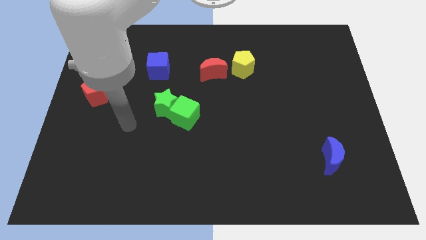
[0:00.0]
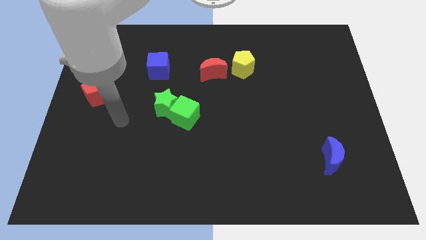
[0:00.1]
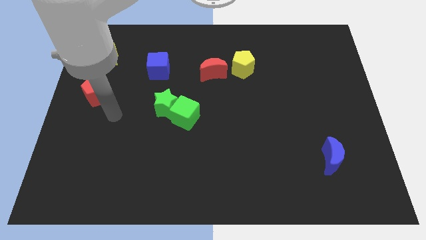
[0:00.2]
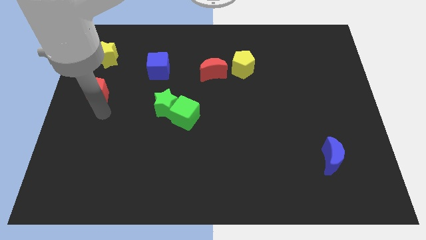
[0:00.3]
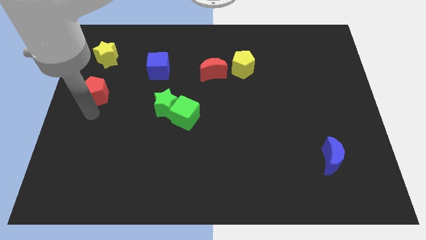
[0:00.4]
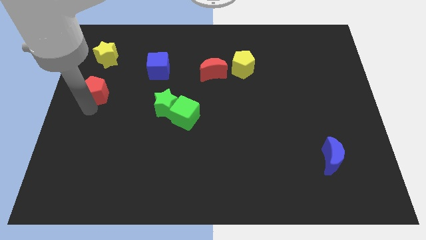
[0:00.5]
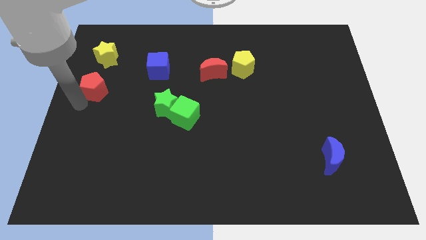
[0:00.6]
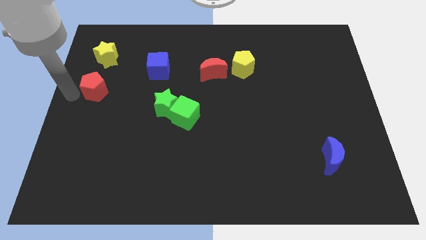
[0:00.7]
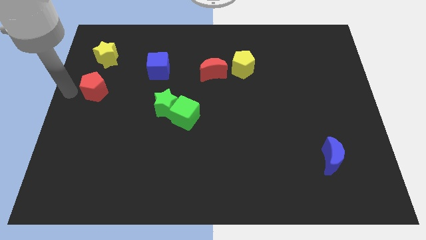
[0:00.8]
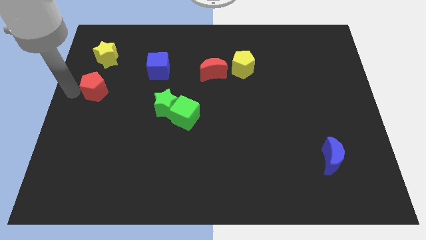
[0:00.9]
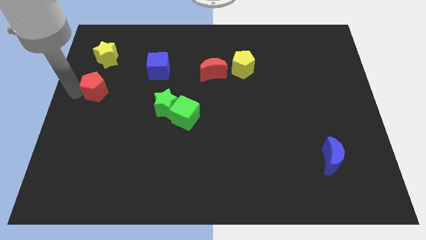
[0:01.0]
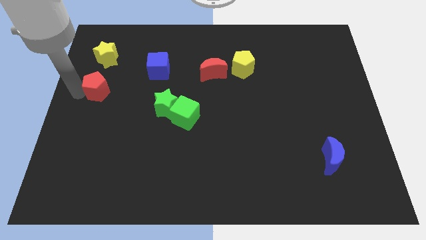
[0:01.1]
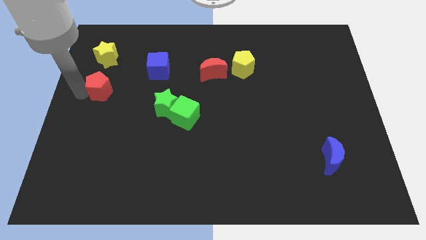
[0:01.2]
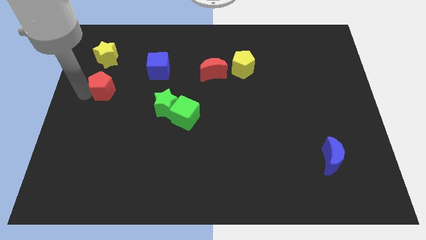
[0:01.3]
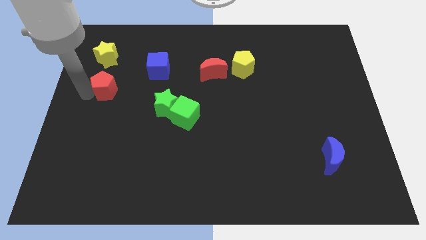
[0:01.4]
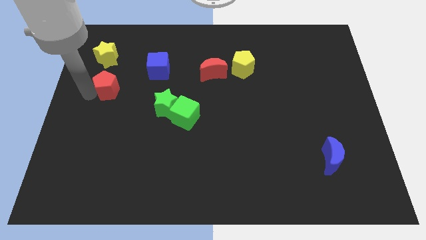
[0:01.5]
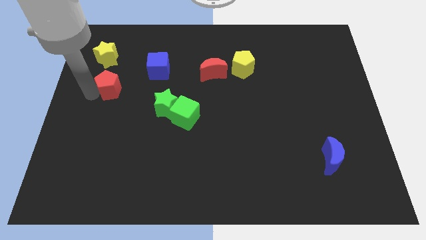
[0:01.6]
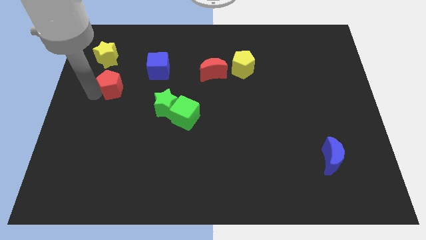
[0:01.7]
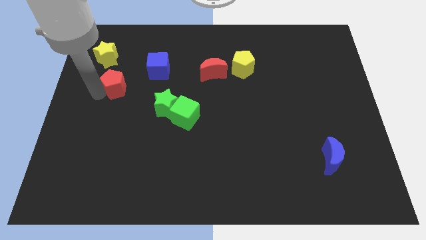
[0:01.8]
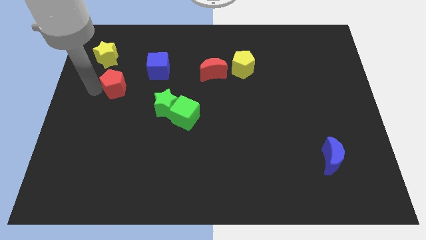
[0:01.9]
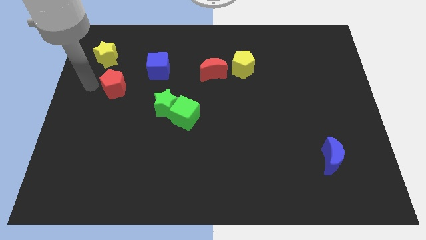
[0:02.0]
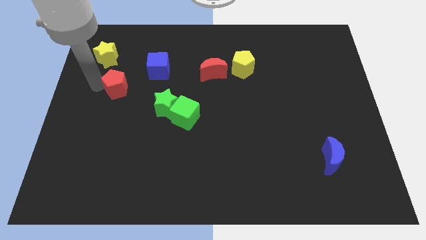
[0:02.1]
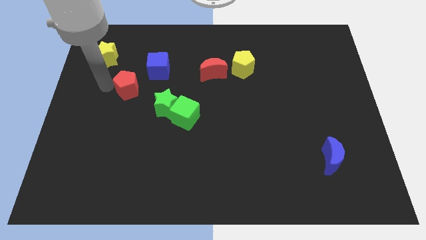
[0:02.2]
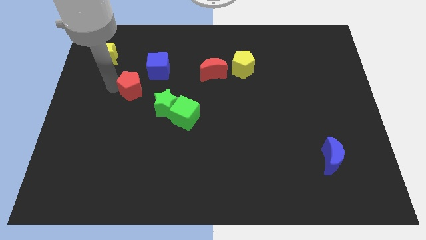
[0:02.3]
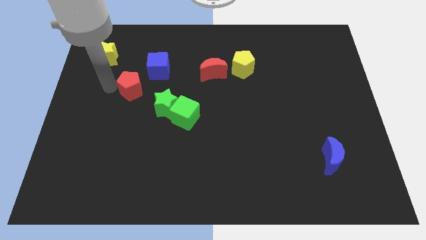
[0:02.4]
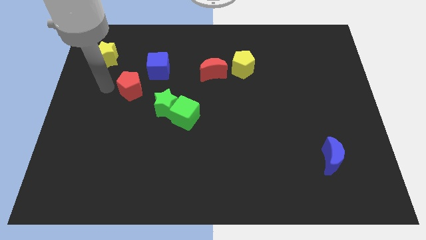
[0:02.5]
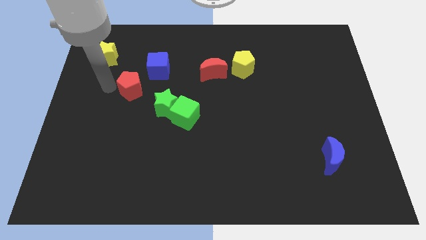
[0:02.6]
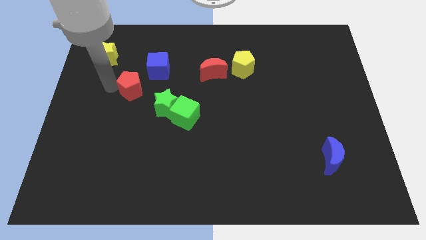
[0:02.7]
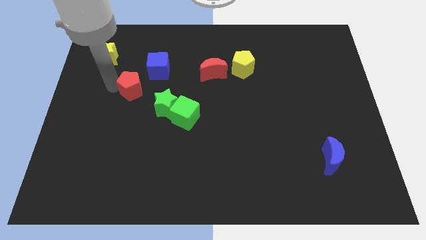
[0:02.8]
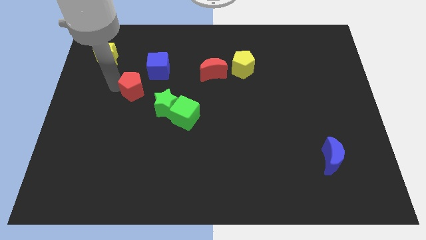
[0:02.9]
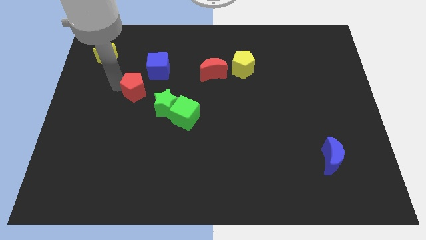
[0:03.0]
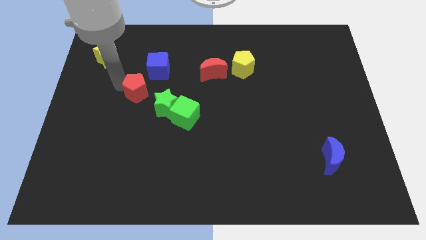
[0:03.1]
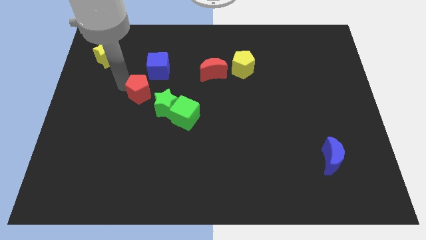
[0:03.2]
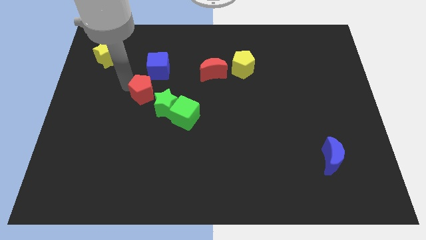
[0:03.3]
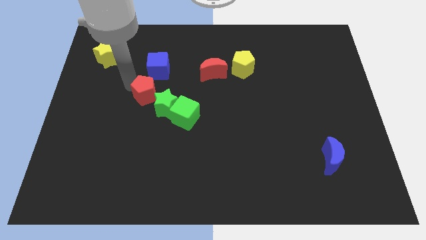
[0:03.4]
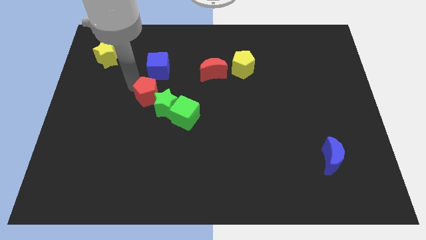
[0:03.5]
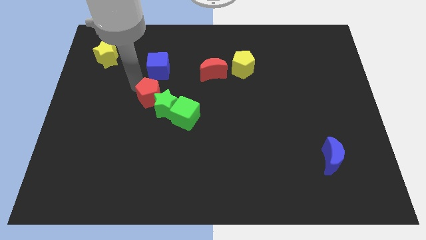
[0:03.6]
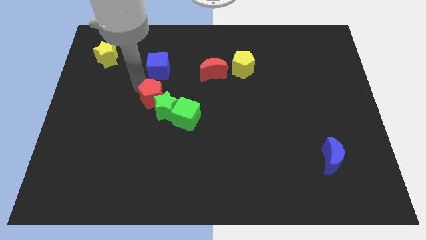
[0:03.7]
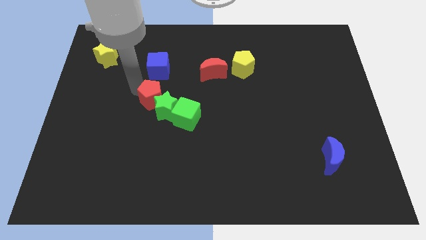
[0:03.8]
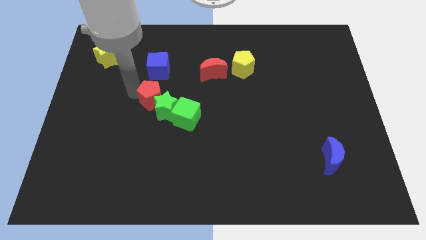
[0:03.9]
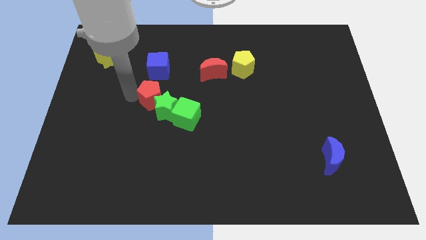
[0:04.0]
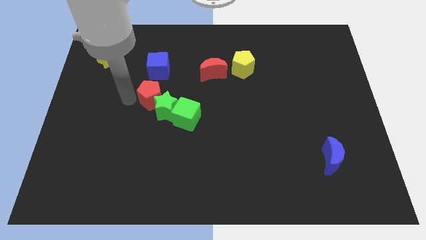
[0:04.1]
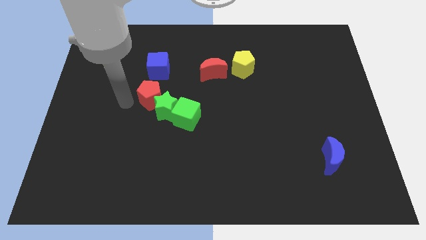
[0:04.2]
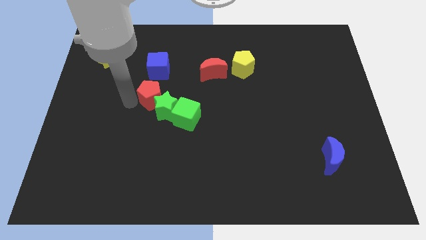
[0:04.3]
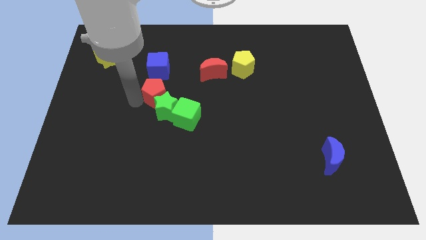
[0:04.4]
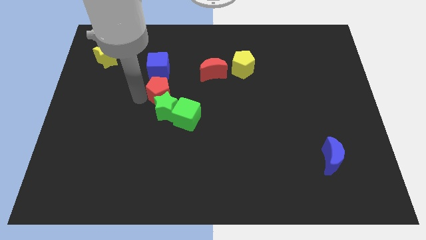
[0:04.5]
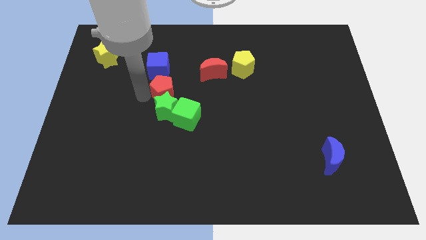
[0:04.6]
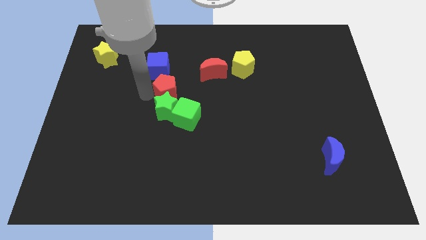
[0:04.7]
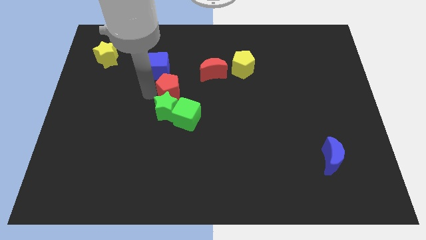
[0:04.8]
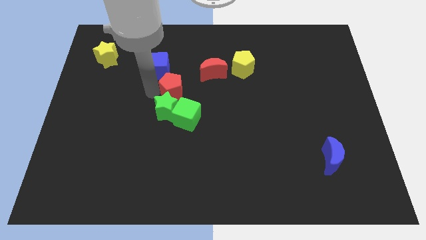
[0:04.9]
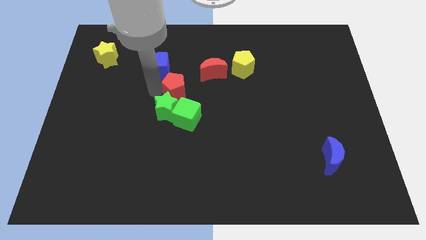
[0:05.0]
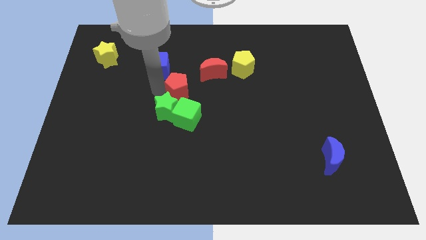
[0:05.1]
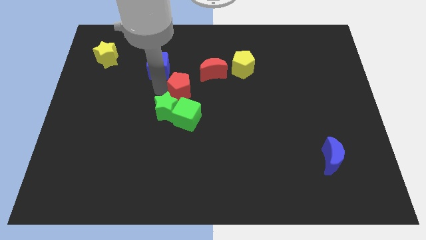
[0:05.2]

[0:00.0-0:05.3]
move the red pentagon to the right

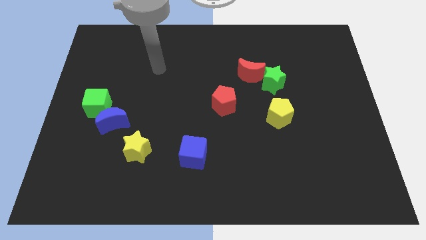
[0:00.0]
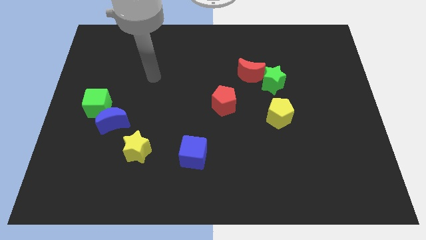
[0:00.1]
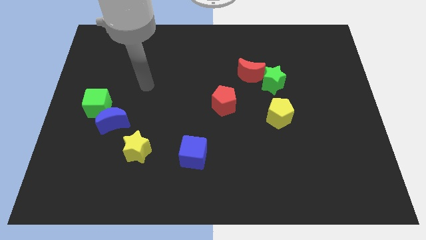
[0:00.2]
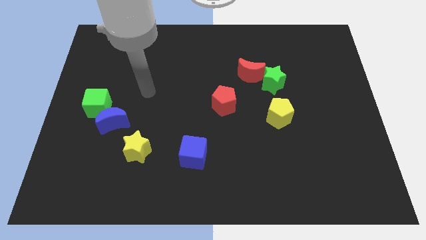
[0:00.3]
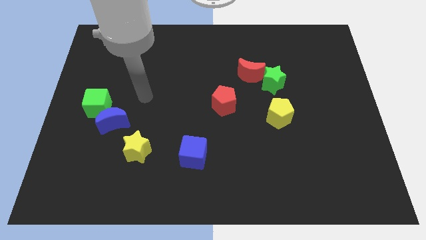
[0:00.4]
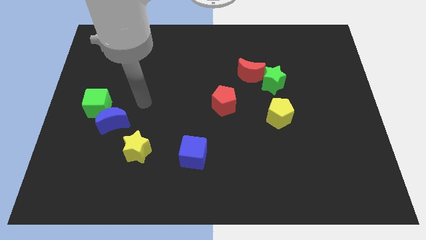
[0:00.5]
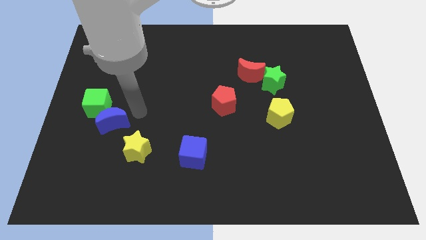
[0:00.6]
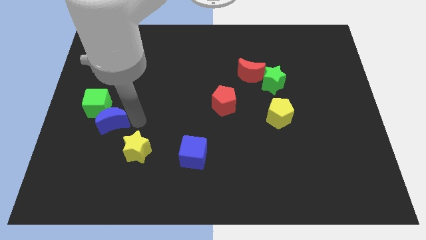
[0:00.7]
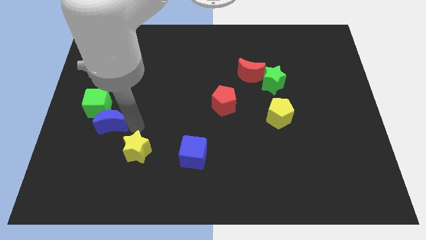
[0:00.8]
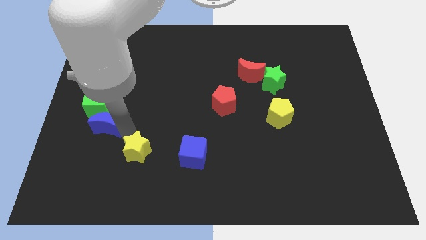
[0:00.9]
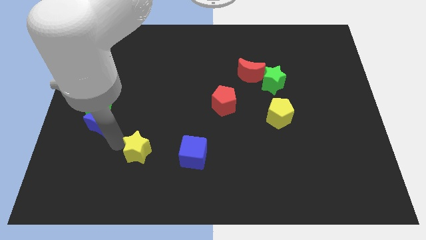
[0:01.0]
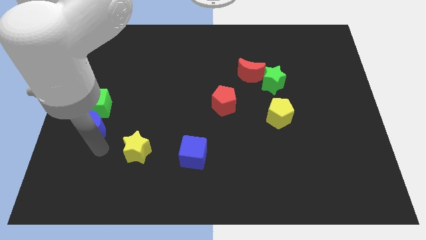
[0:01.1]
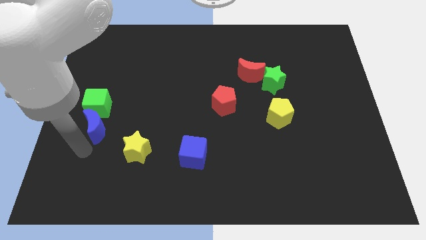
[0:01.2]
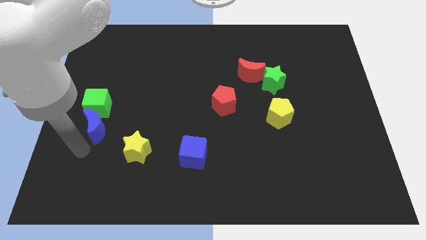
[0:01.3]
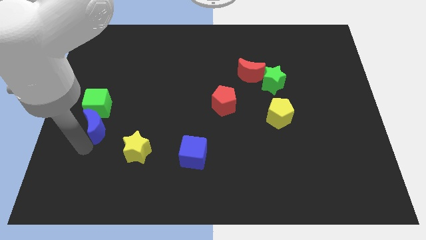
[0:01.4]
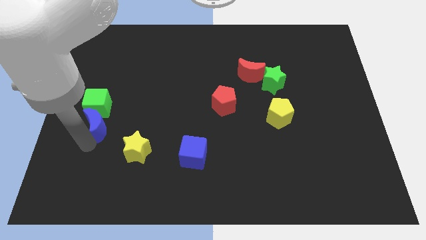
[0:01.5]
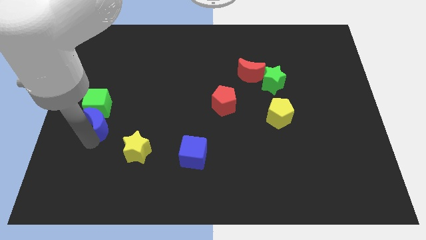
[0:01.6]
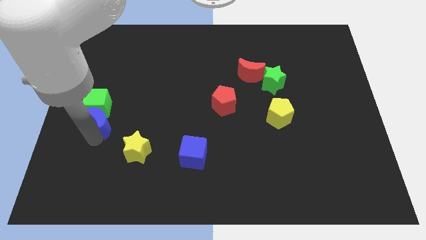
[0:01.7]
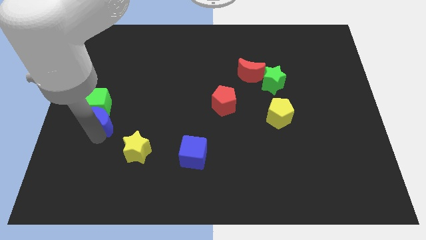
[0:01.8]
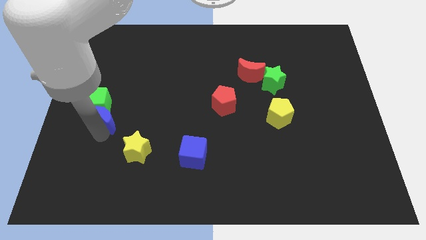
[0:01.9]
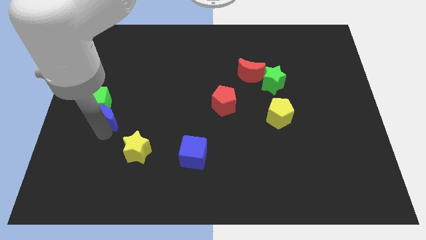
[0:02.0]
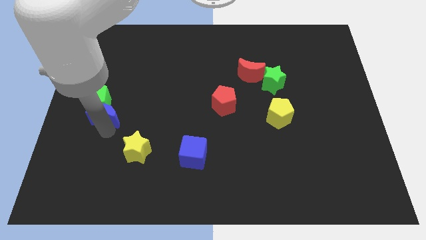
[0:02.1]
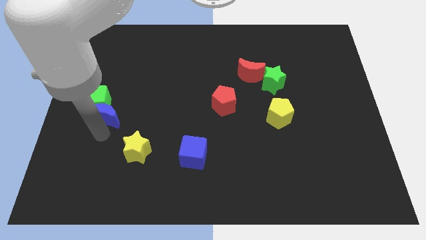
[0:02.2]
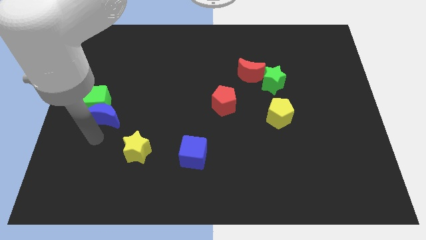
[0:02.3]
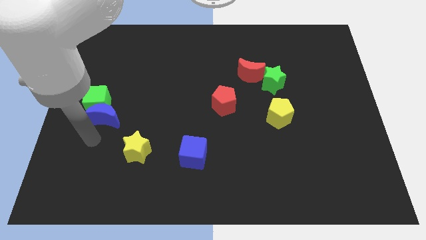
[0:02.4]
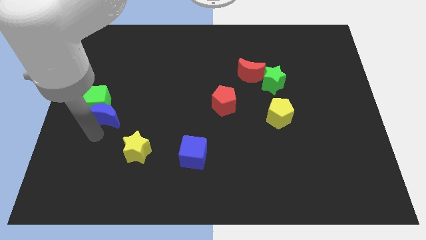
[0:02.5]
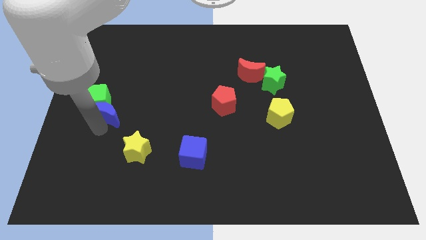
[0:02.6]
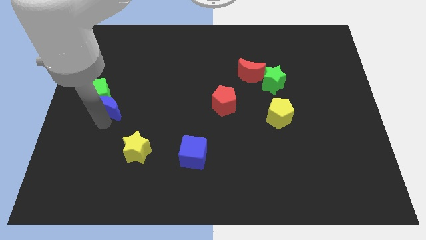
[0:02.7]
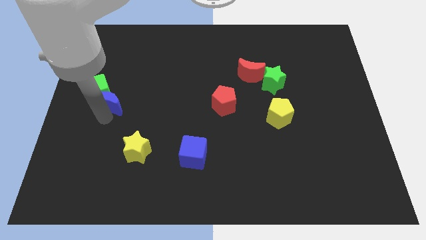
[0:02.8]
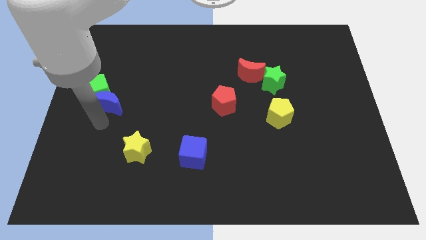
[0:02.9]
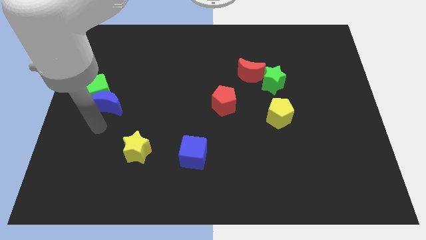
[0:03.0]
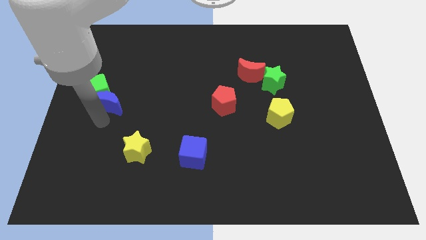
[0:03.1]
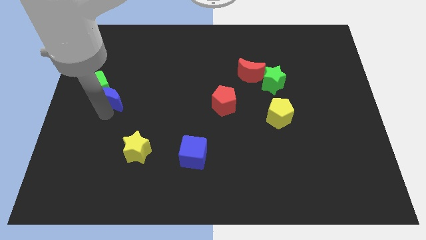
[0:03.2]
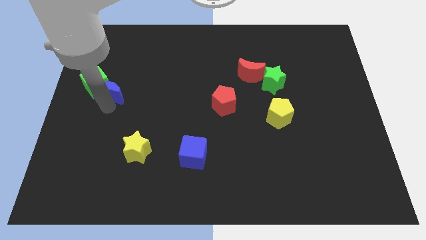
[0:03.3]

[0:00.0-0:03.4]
move the blue moon a little bit upwards
